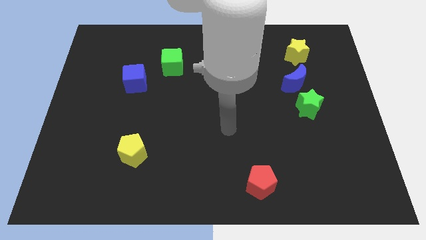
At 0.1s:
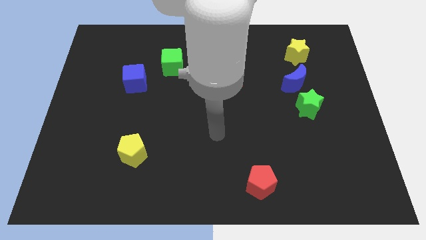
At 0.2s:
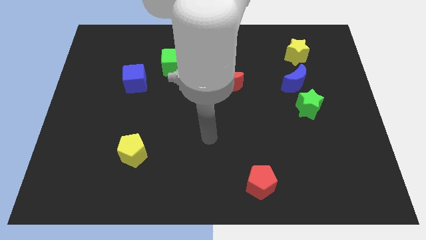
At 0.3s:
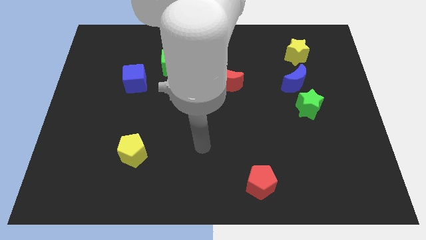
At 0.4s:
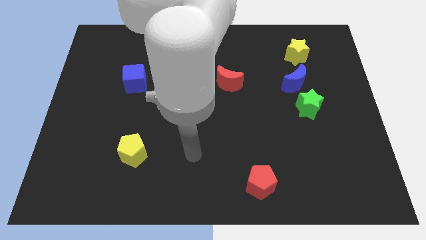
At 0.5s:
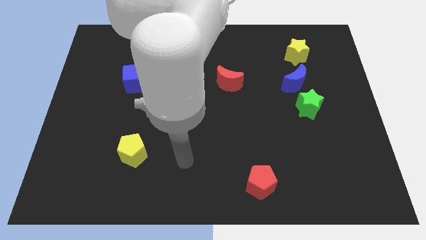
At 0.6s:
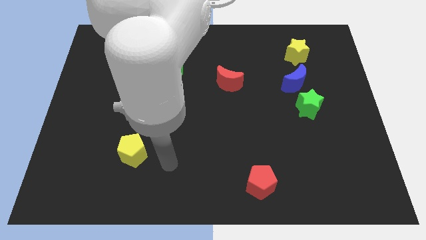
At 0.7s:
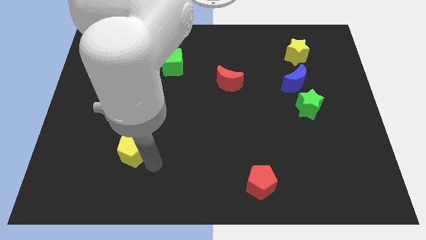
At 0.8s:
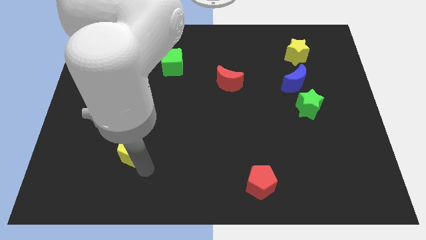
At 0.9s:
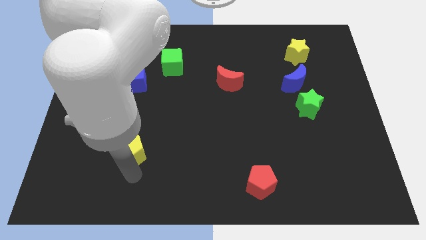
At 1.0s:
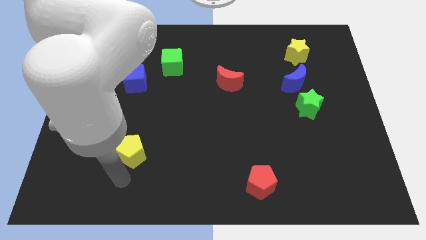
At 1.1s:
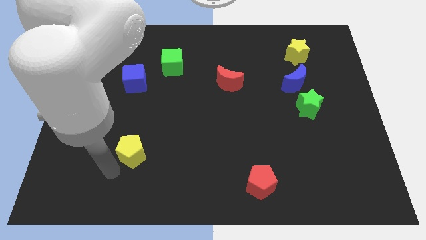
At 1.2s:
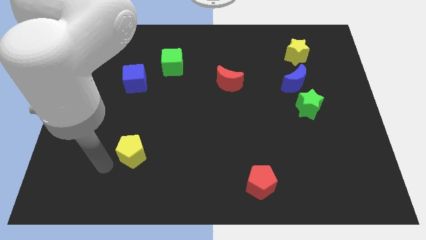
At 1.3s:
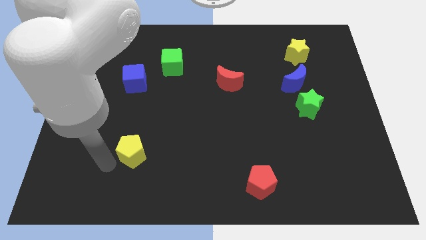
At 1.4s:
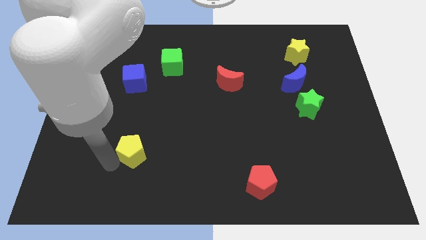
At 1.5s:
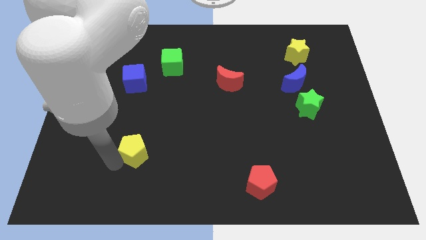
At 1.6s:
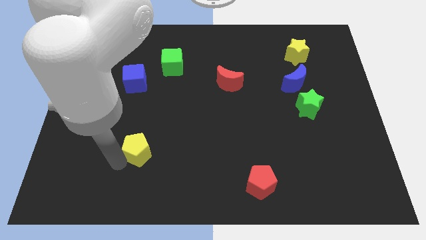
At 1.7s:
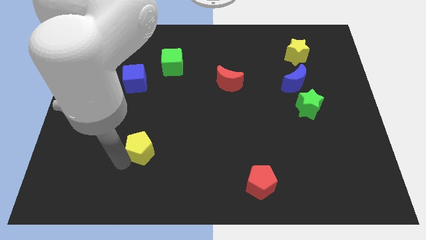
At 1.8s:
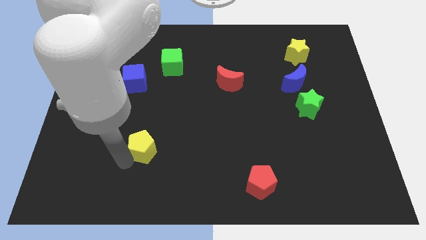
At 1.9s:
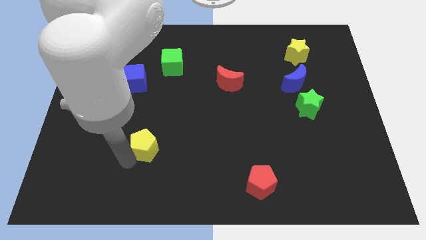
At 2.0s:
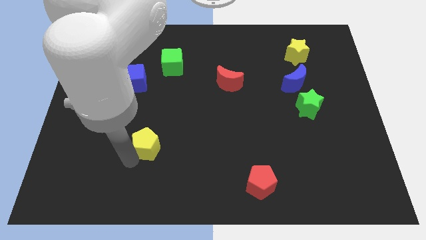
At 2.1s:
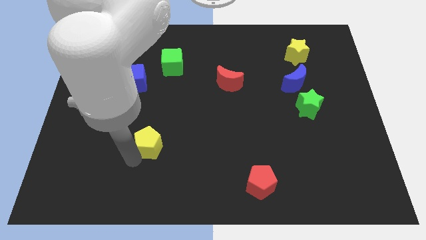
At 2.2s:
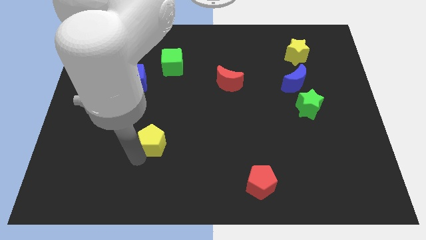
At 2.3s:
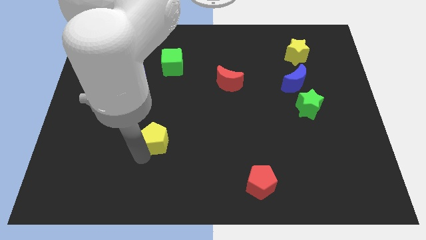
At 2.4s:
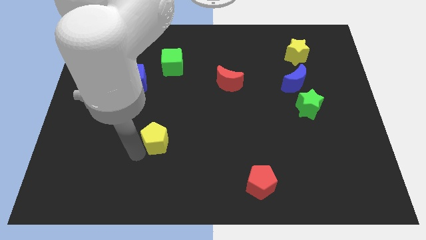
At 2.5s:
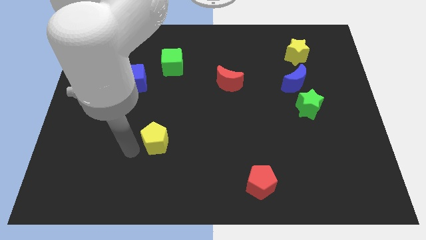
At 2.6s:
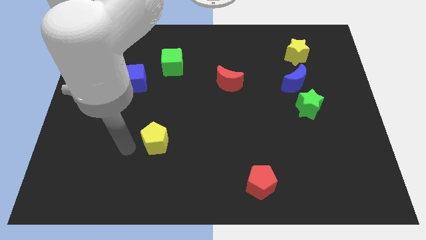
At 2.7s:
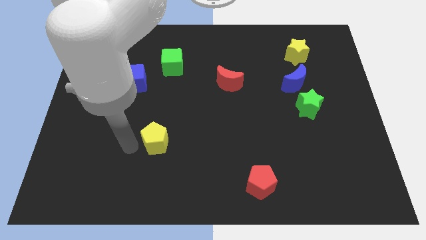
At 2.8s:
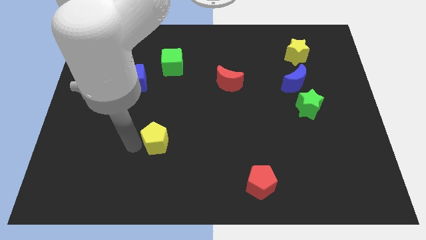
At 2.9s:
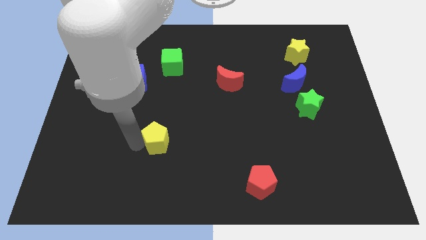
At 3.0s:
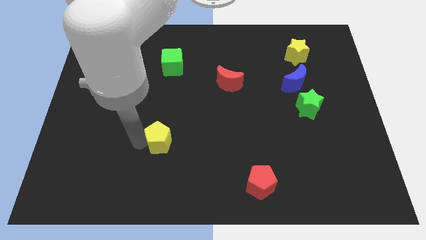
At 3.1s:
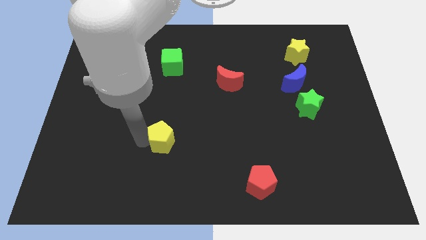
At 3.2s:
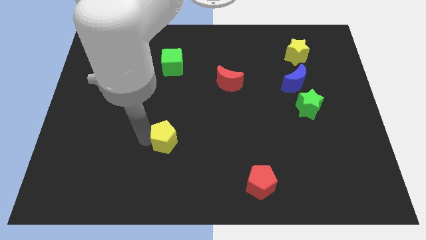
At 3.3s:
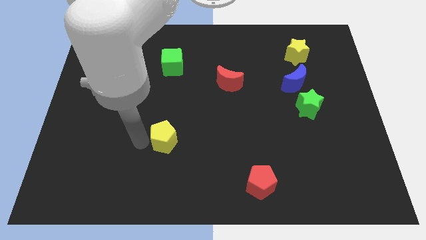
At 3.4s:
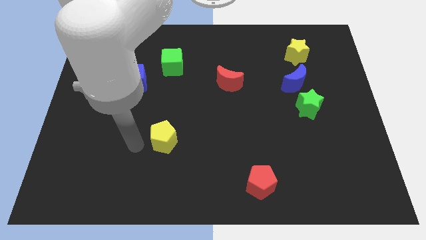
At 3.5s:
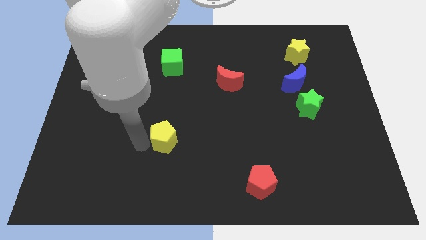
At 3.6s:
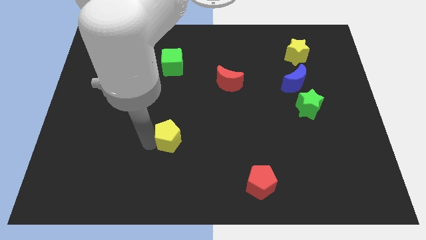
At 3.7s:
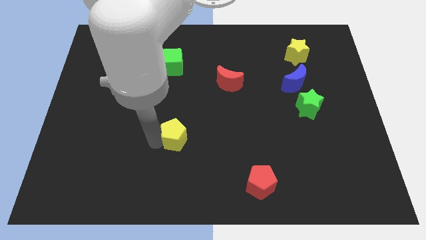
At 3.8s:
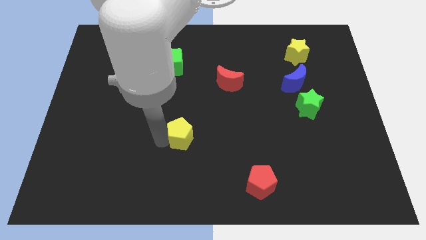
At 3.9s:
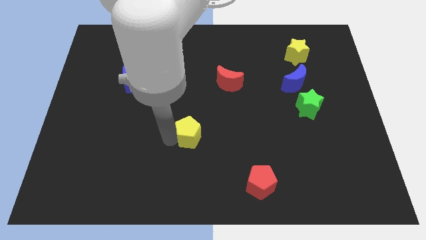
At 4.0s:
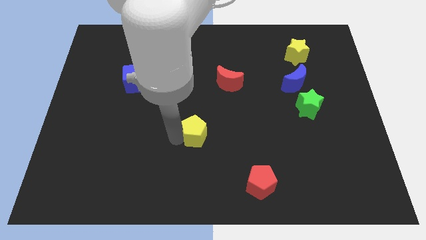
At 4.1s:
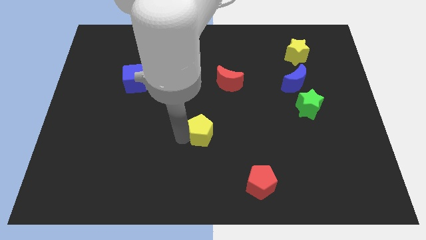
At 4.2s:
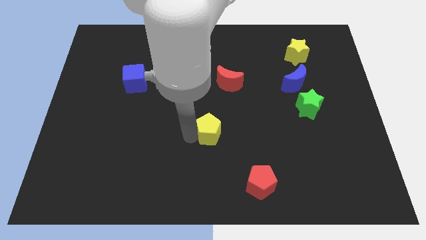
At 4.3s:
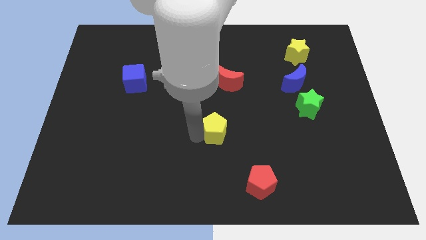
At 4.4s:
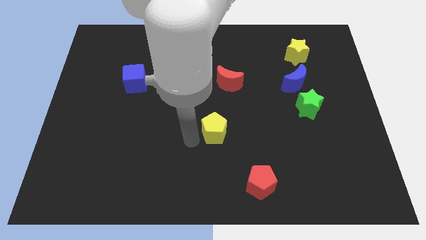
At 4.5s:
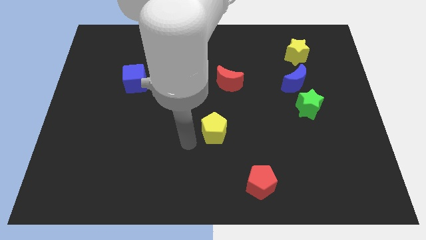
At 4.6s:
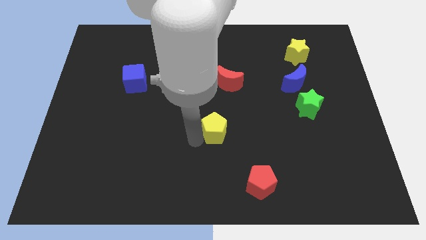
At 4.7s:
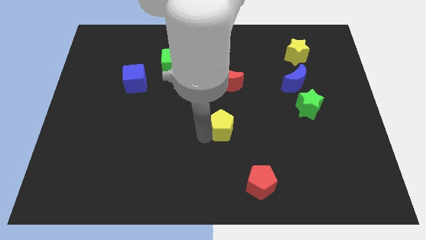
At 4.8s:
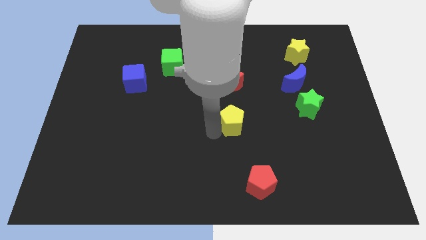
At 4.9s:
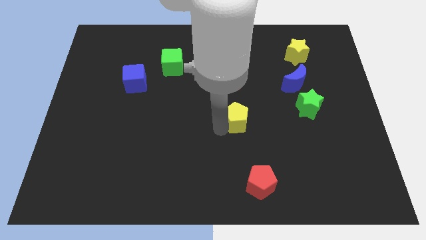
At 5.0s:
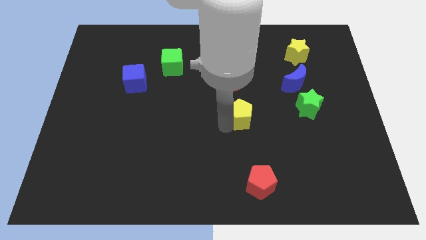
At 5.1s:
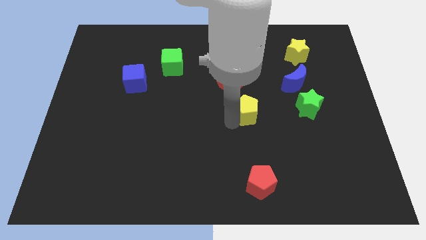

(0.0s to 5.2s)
push the yellow pentagon to the left side of the green star

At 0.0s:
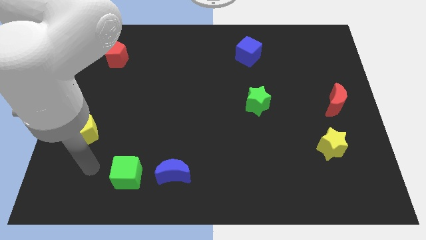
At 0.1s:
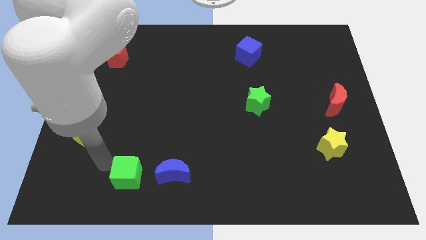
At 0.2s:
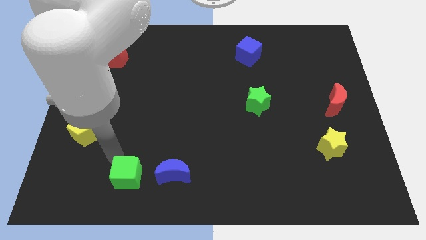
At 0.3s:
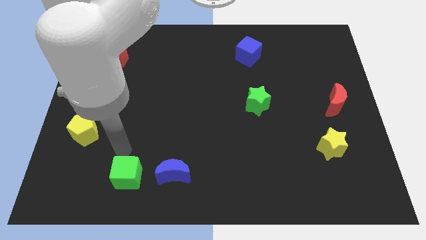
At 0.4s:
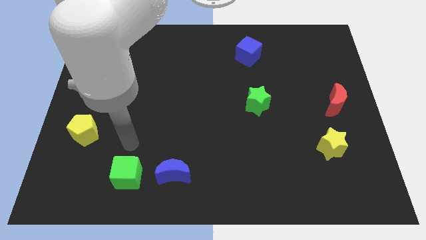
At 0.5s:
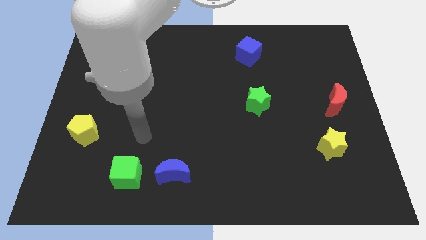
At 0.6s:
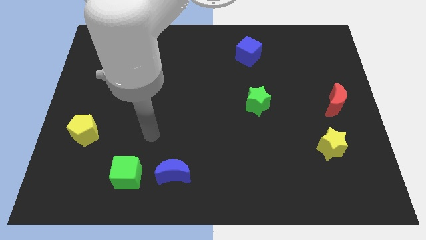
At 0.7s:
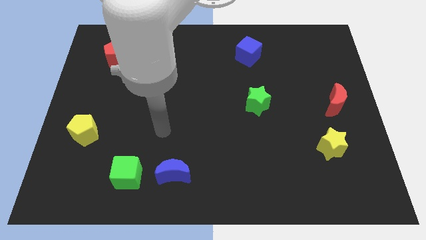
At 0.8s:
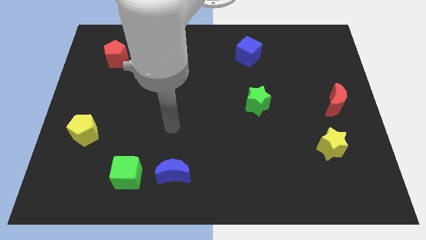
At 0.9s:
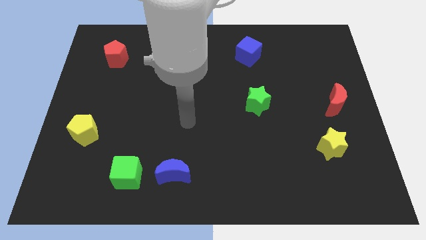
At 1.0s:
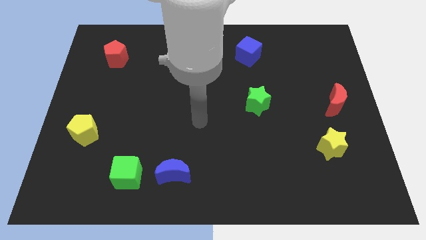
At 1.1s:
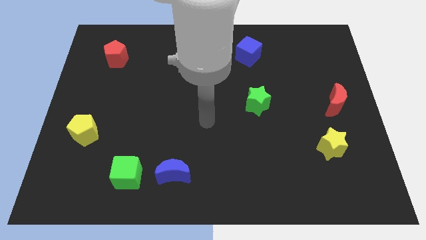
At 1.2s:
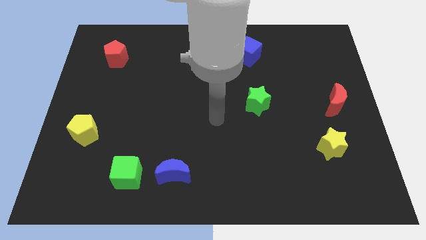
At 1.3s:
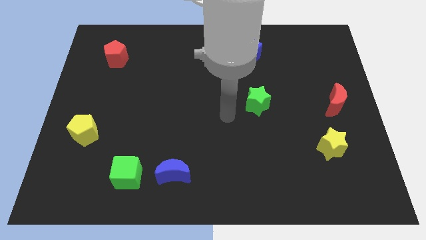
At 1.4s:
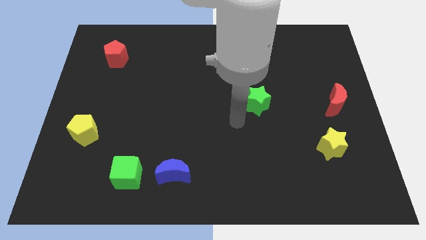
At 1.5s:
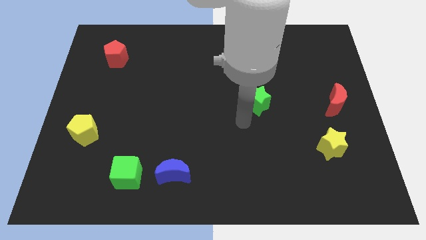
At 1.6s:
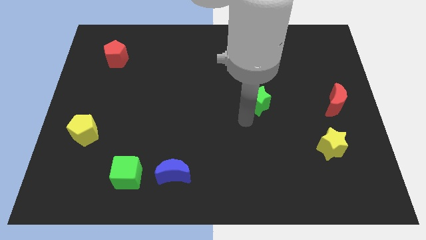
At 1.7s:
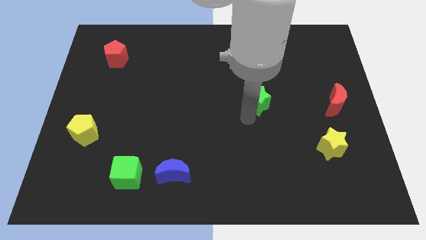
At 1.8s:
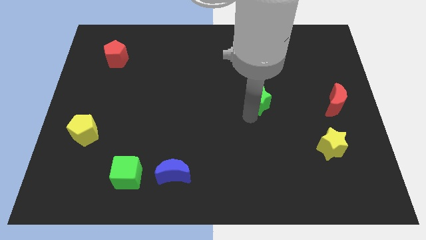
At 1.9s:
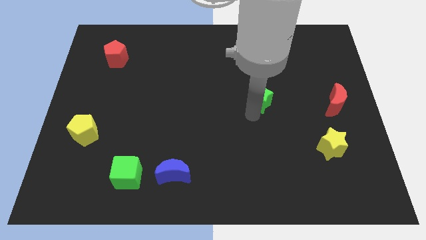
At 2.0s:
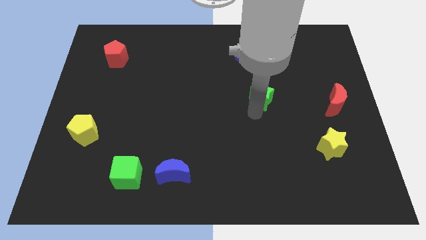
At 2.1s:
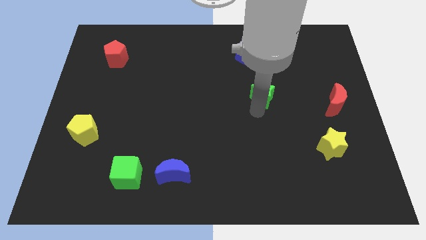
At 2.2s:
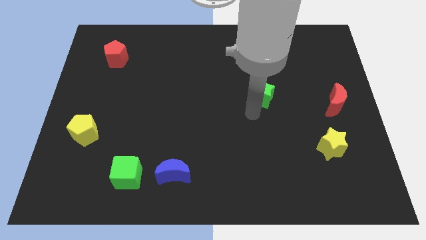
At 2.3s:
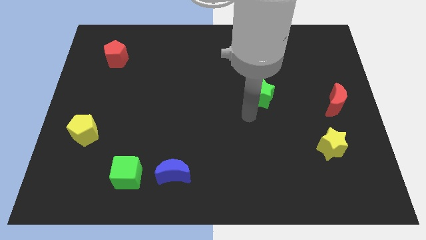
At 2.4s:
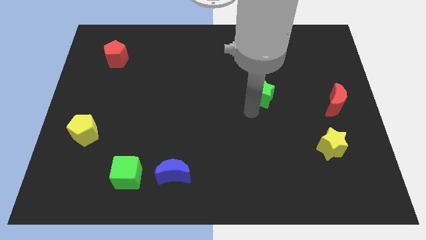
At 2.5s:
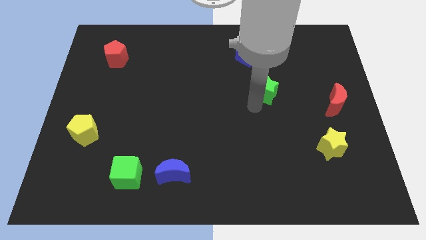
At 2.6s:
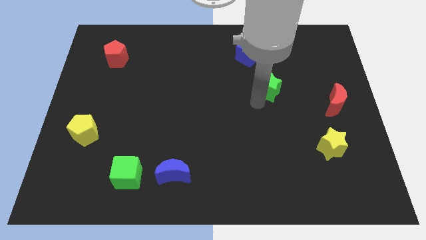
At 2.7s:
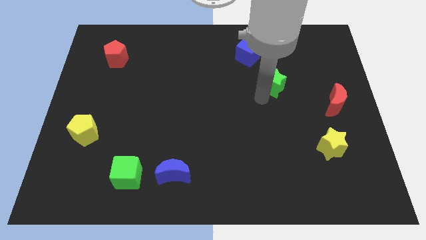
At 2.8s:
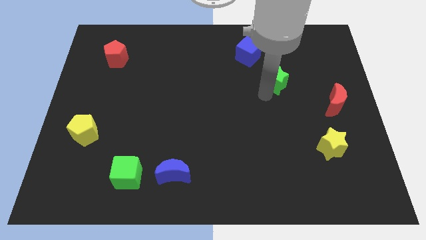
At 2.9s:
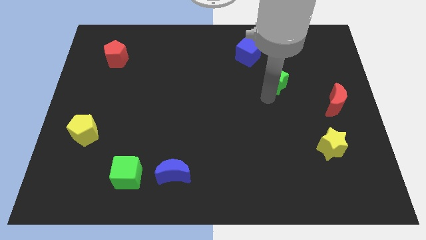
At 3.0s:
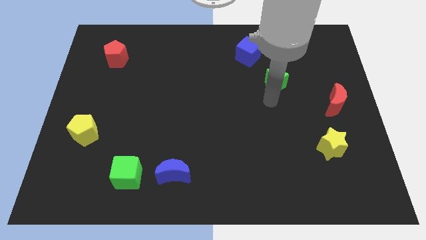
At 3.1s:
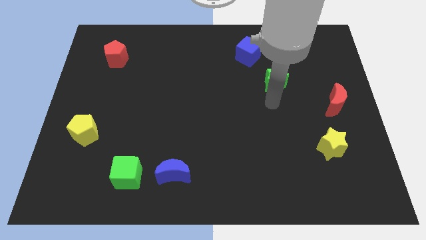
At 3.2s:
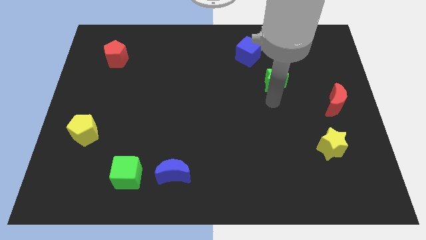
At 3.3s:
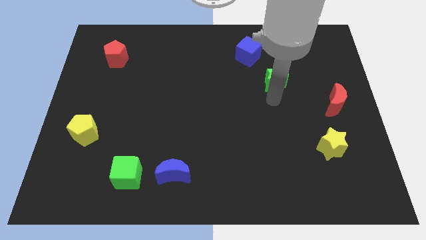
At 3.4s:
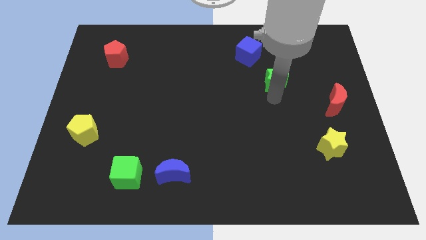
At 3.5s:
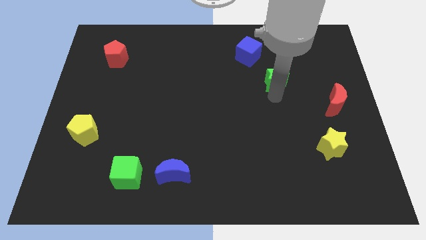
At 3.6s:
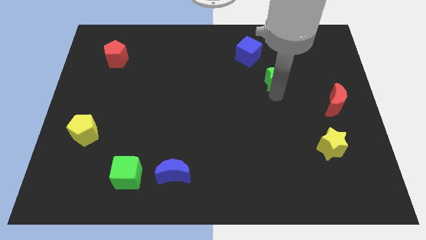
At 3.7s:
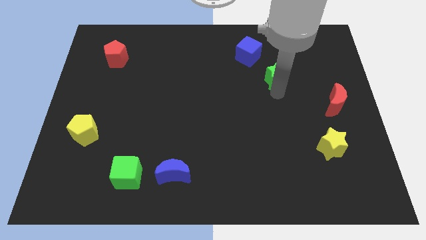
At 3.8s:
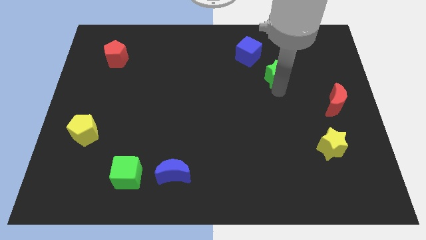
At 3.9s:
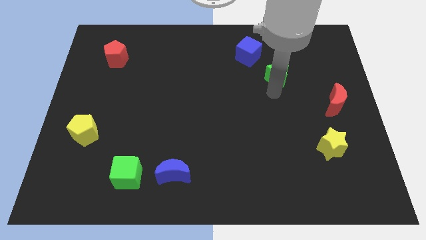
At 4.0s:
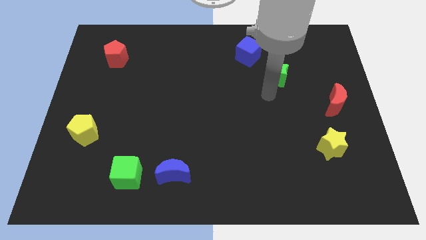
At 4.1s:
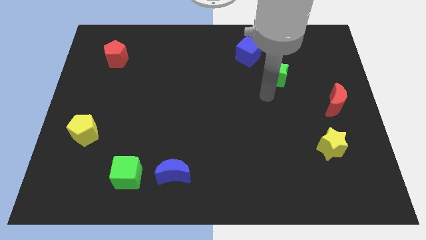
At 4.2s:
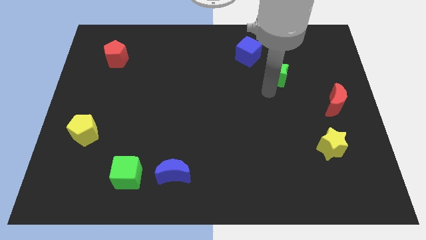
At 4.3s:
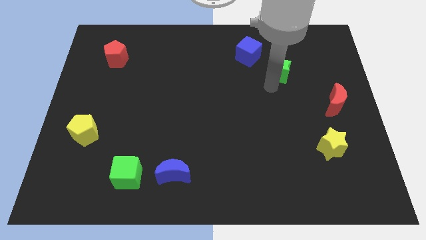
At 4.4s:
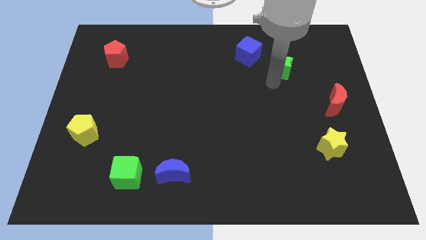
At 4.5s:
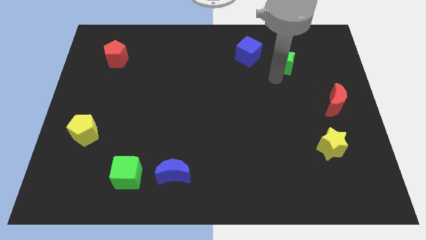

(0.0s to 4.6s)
put the green star to the right of the blue cube
